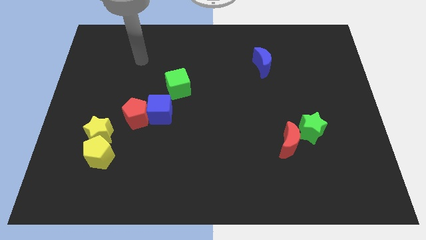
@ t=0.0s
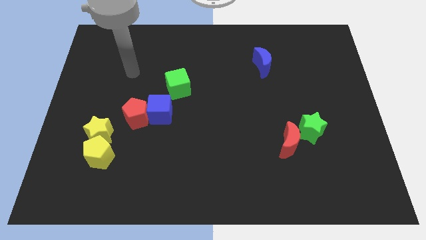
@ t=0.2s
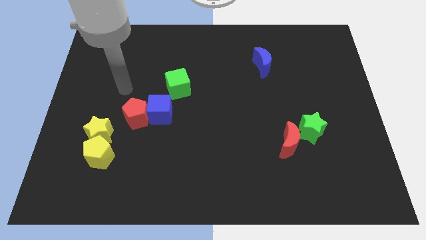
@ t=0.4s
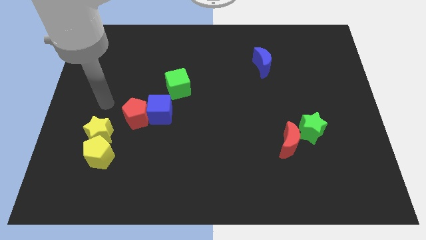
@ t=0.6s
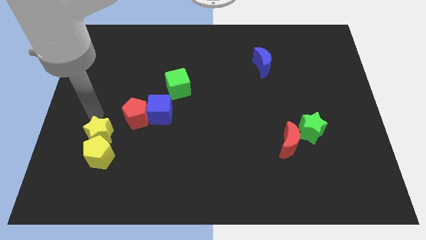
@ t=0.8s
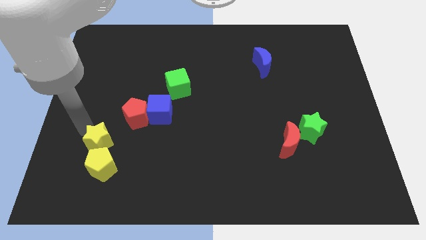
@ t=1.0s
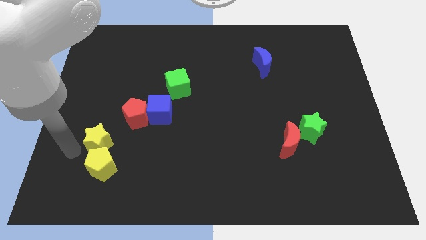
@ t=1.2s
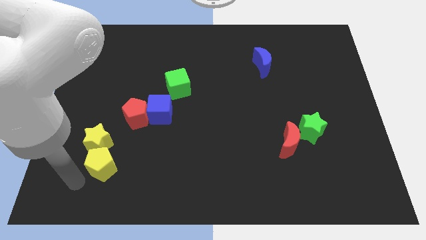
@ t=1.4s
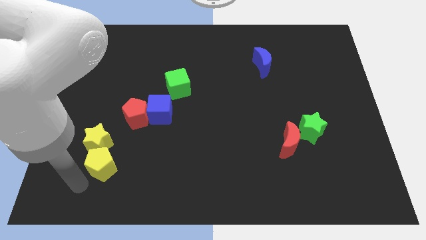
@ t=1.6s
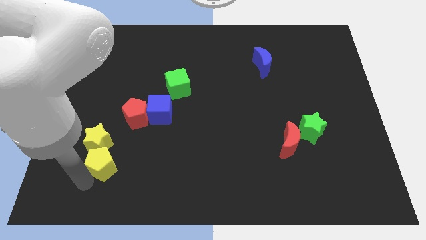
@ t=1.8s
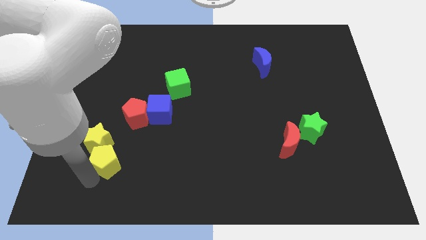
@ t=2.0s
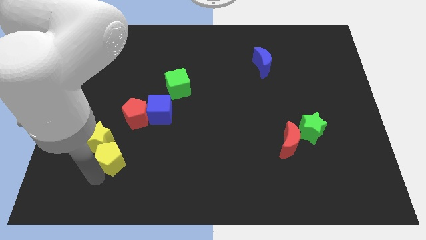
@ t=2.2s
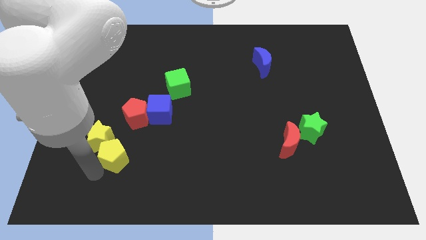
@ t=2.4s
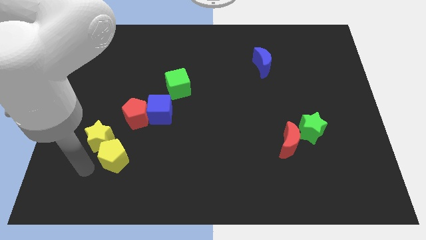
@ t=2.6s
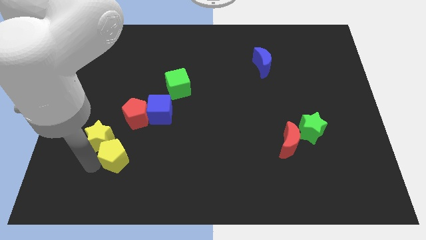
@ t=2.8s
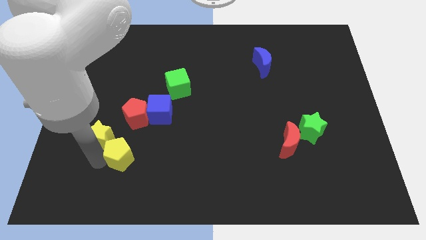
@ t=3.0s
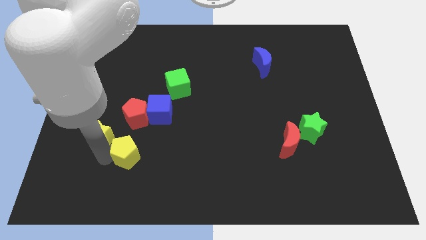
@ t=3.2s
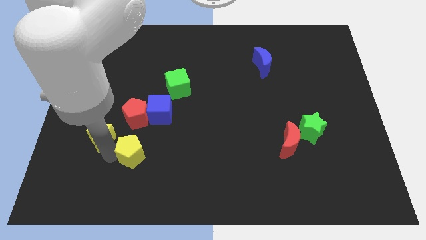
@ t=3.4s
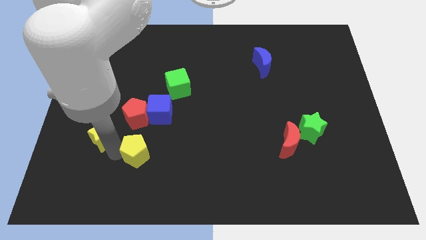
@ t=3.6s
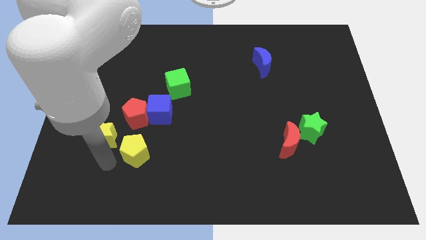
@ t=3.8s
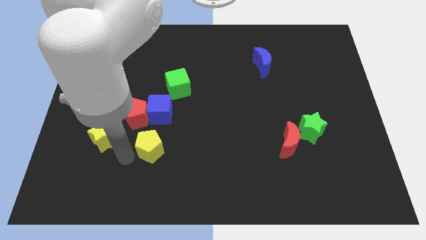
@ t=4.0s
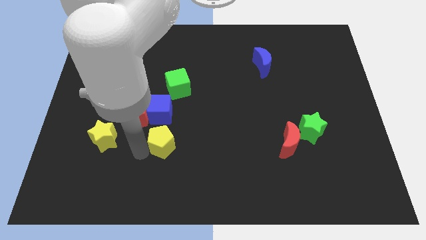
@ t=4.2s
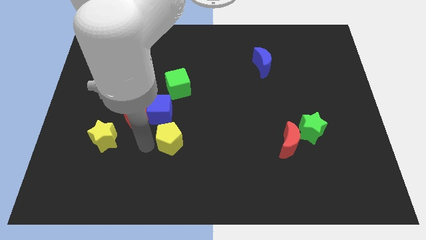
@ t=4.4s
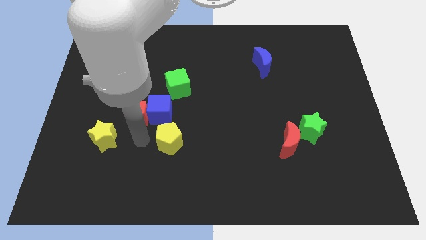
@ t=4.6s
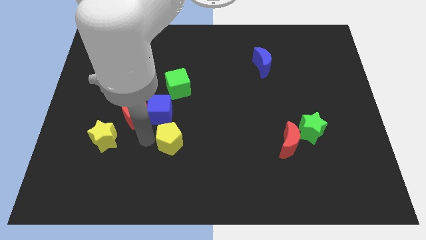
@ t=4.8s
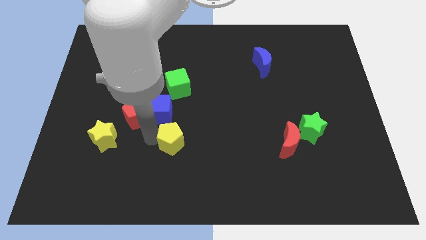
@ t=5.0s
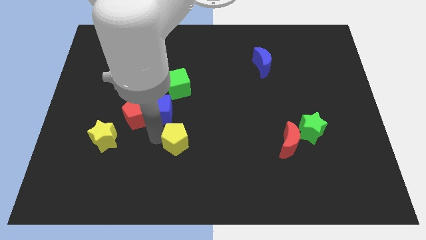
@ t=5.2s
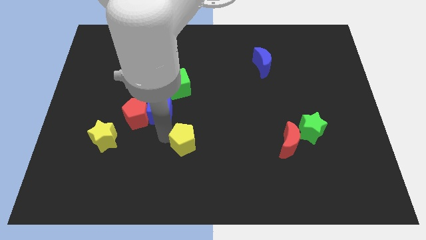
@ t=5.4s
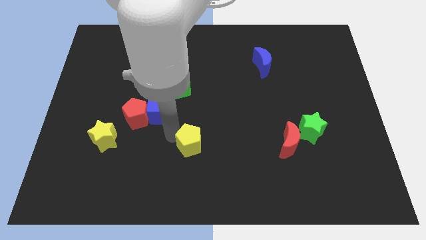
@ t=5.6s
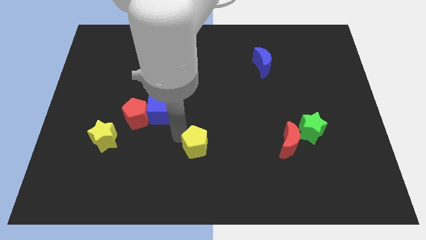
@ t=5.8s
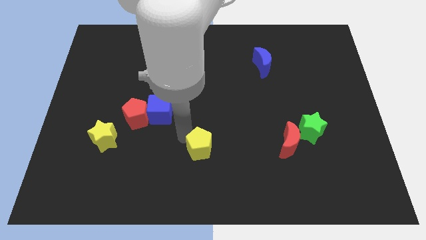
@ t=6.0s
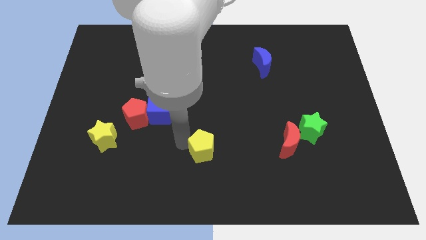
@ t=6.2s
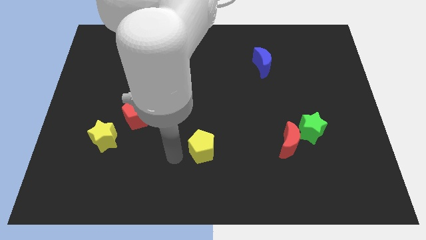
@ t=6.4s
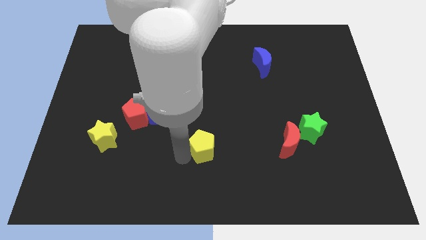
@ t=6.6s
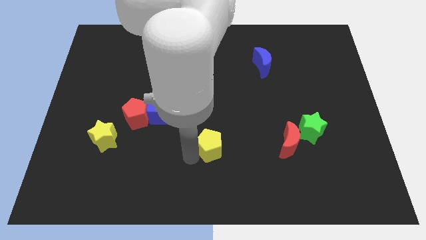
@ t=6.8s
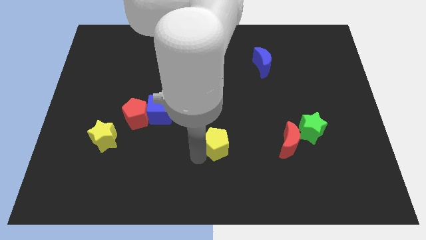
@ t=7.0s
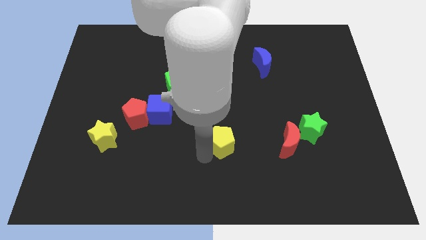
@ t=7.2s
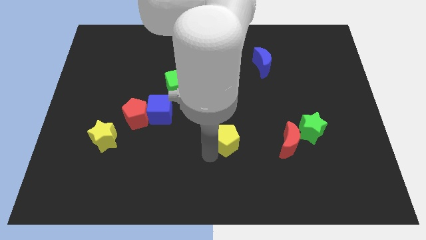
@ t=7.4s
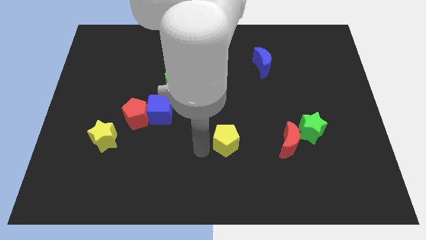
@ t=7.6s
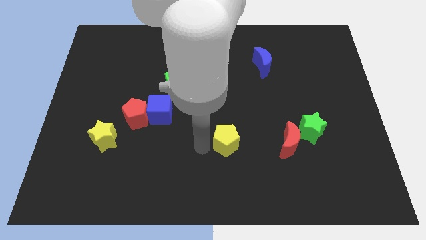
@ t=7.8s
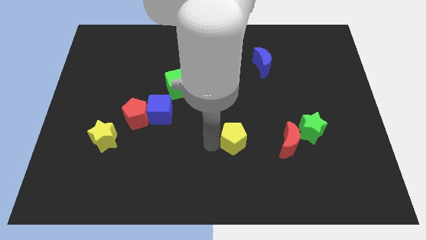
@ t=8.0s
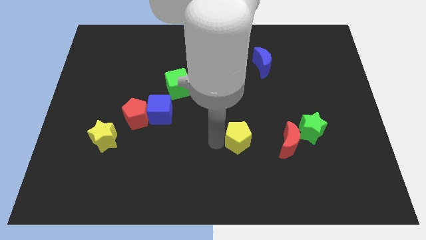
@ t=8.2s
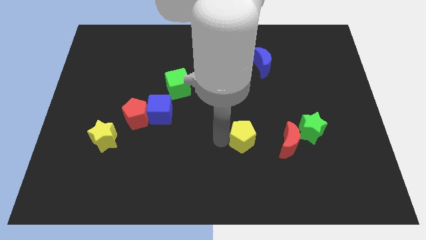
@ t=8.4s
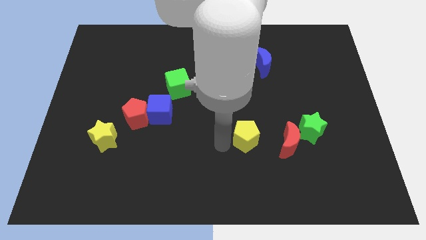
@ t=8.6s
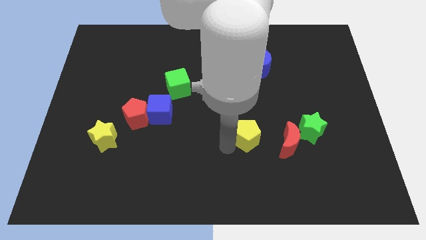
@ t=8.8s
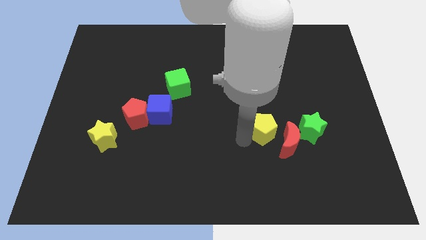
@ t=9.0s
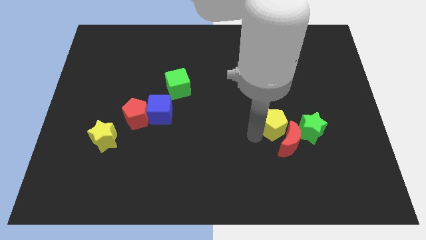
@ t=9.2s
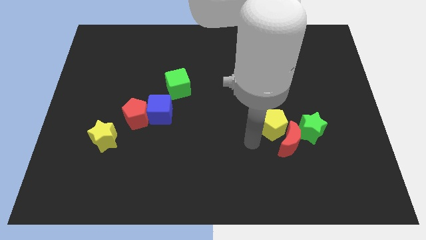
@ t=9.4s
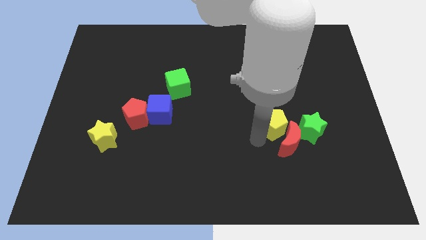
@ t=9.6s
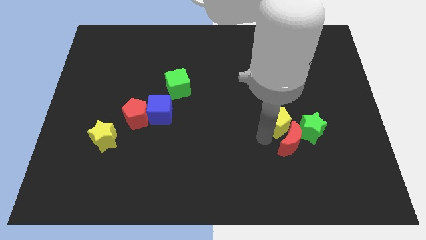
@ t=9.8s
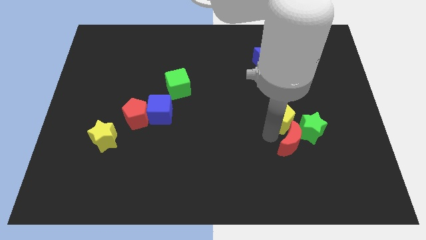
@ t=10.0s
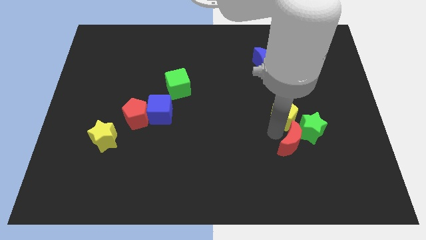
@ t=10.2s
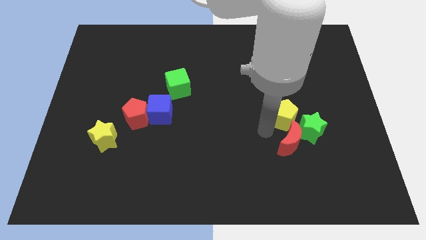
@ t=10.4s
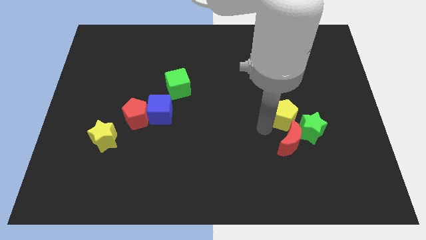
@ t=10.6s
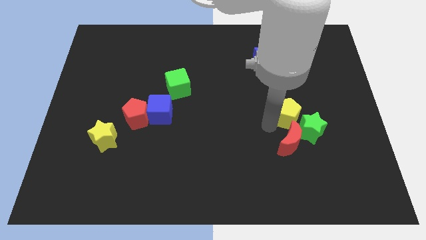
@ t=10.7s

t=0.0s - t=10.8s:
put the yellow pentagon to the top right side of the red moon

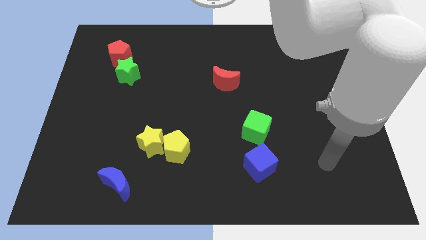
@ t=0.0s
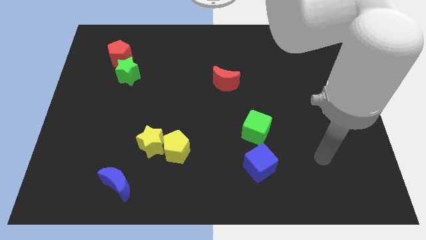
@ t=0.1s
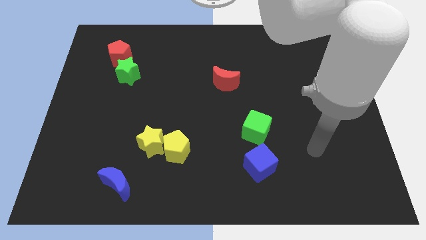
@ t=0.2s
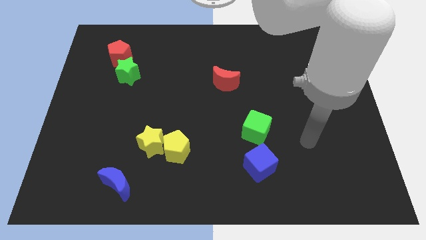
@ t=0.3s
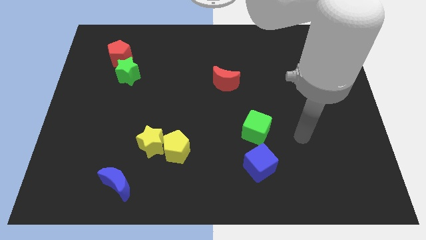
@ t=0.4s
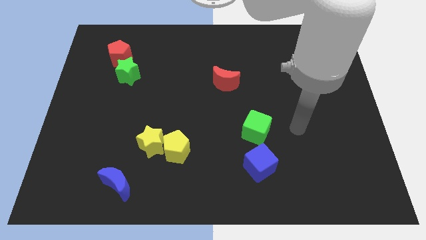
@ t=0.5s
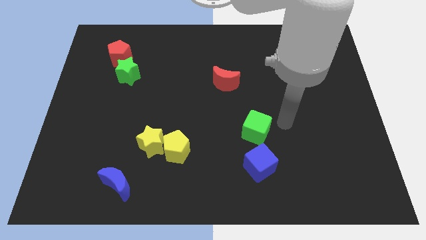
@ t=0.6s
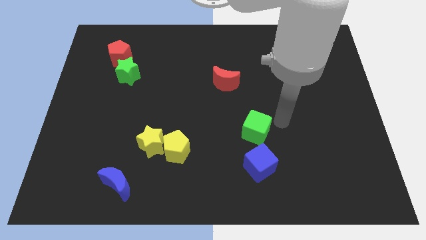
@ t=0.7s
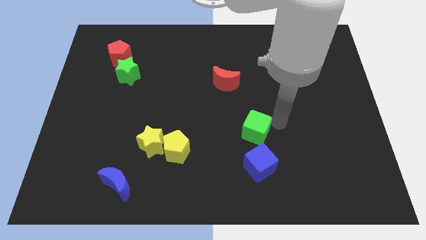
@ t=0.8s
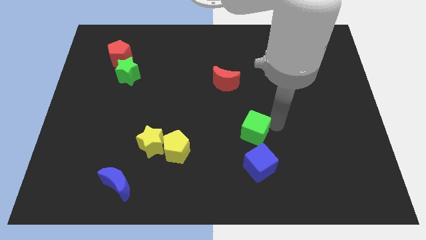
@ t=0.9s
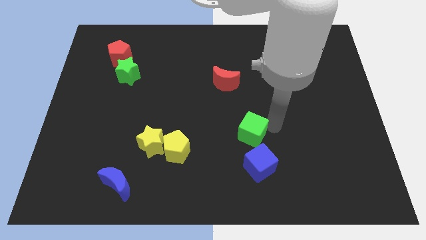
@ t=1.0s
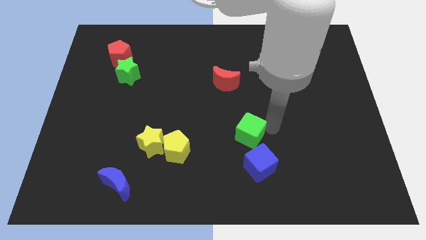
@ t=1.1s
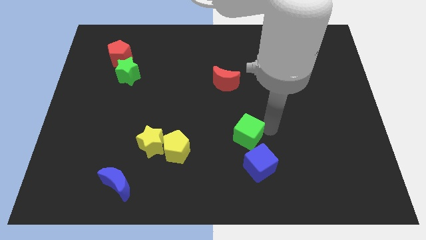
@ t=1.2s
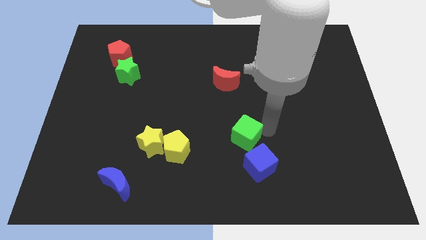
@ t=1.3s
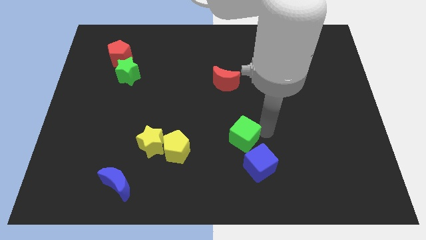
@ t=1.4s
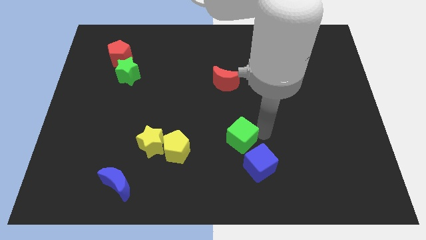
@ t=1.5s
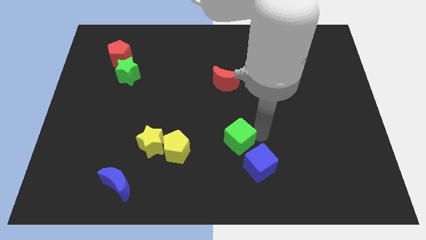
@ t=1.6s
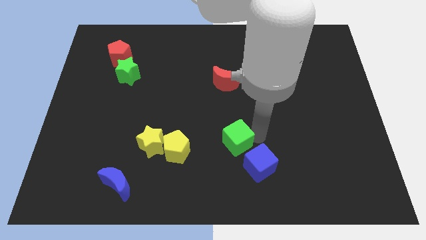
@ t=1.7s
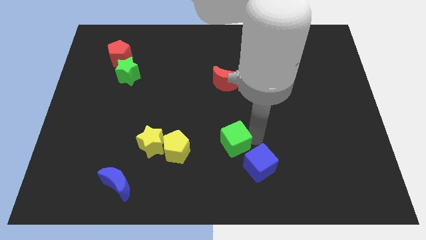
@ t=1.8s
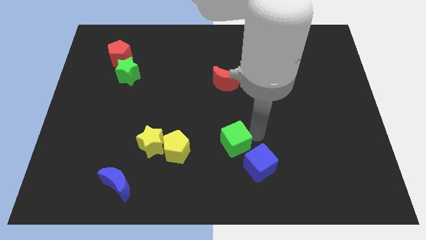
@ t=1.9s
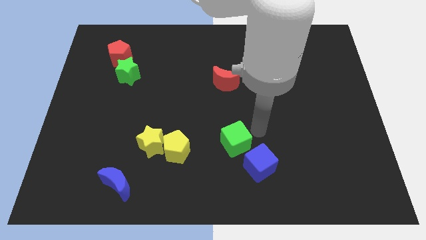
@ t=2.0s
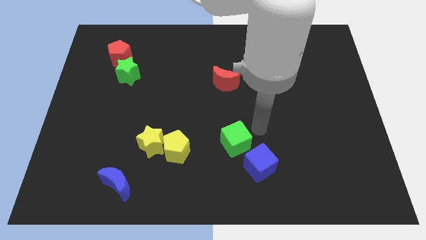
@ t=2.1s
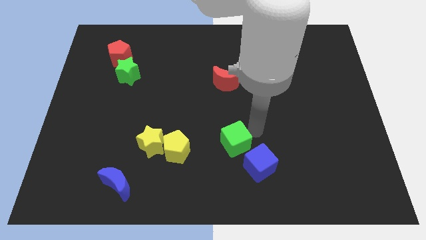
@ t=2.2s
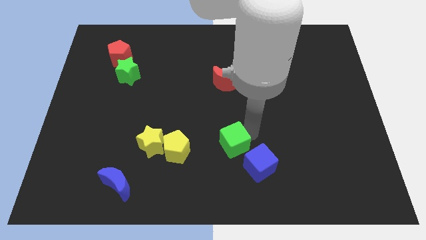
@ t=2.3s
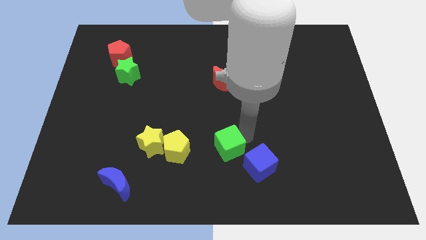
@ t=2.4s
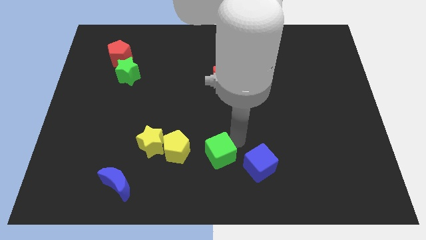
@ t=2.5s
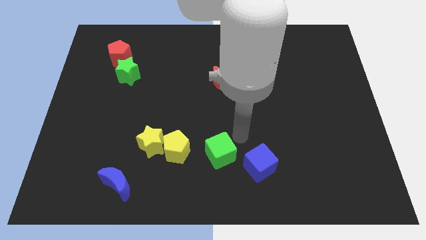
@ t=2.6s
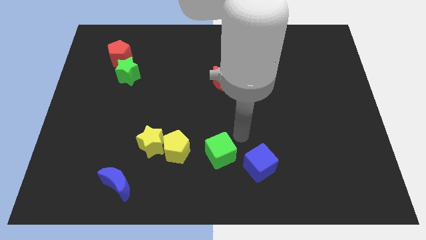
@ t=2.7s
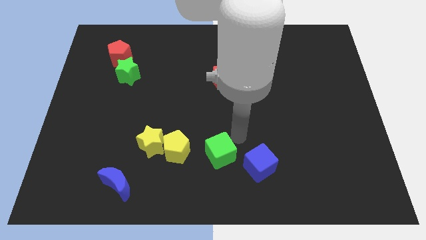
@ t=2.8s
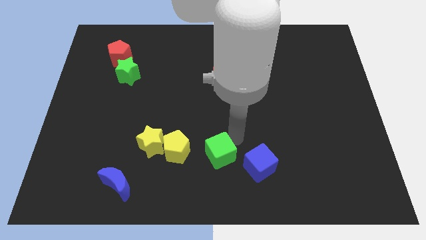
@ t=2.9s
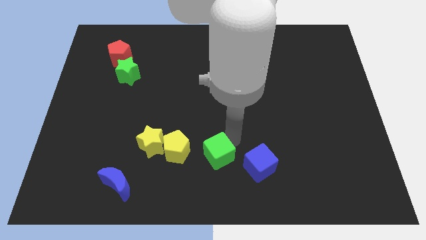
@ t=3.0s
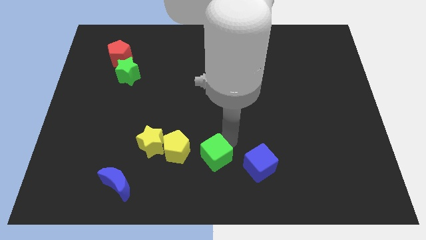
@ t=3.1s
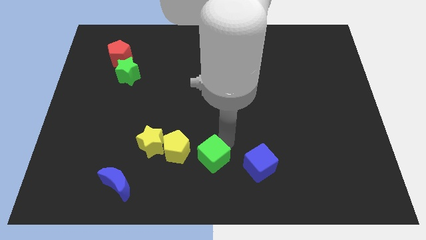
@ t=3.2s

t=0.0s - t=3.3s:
slide the green cube to the bottom right side of the yellow pentagon
